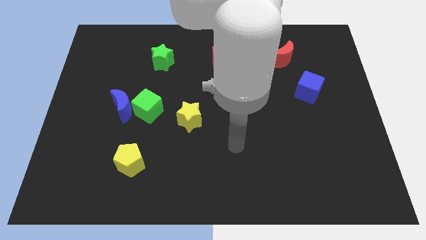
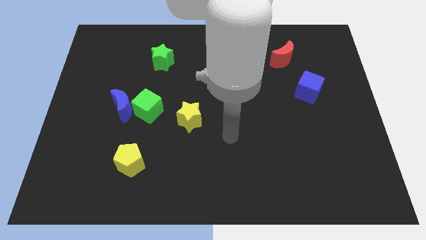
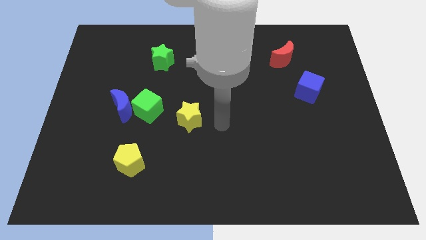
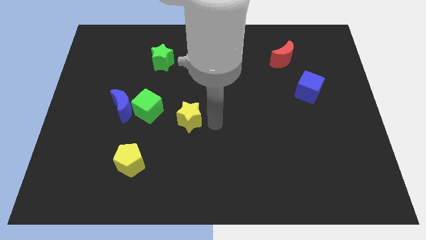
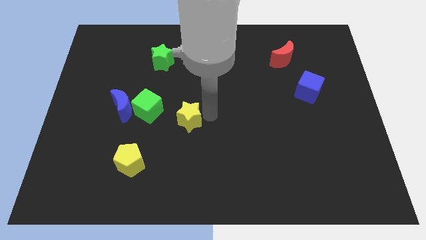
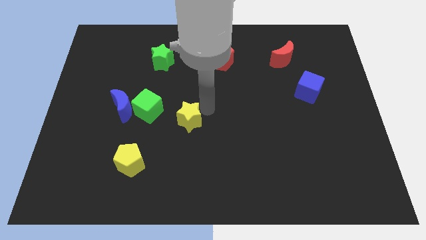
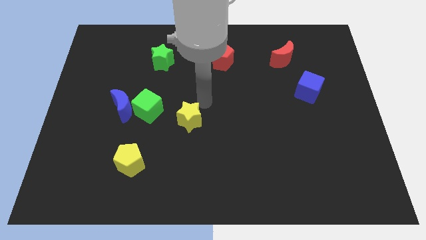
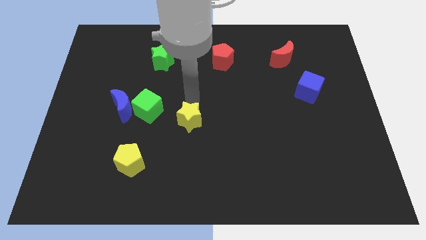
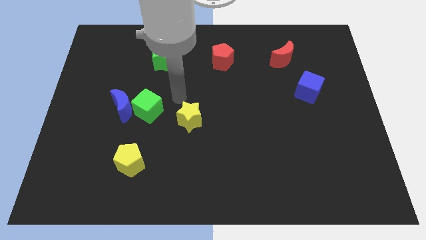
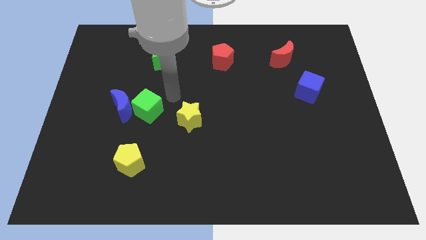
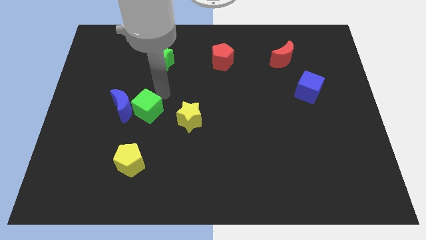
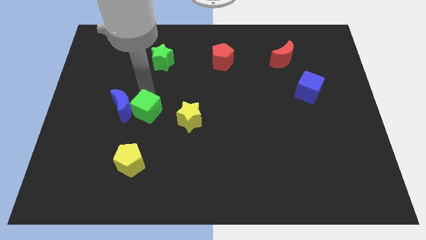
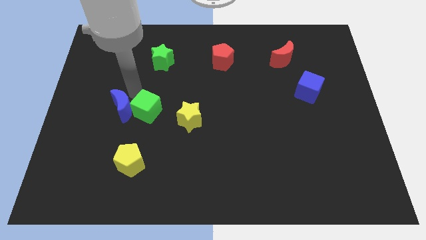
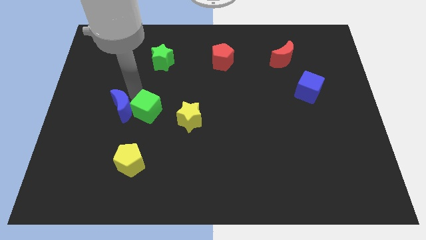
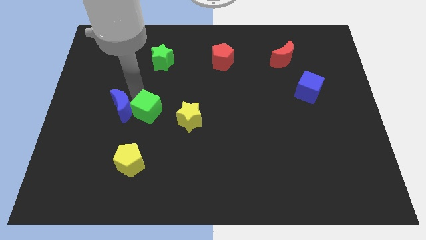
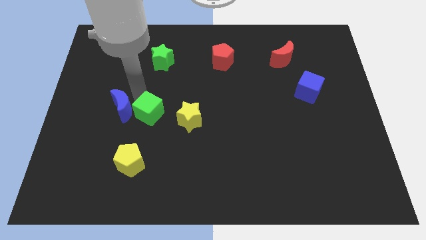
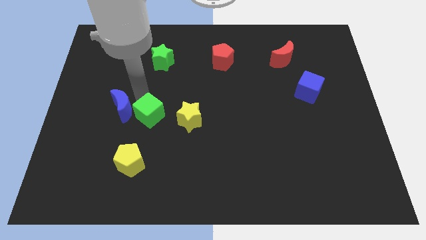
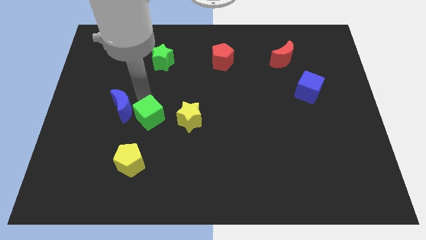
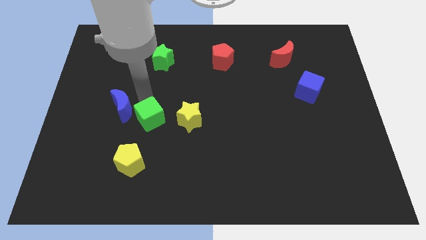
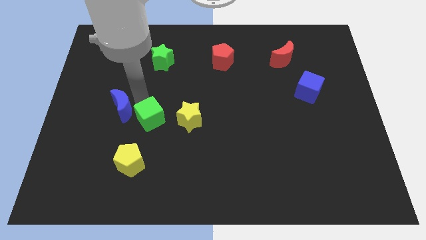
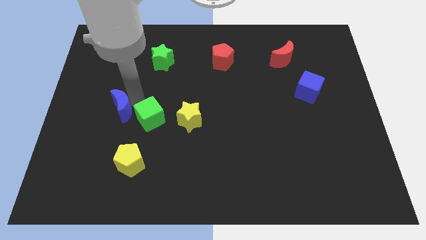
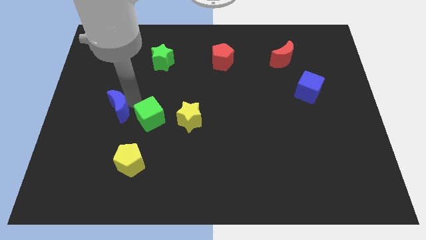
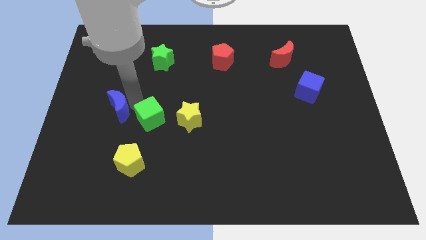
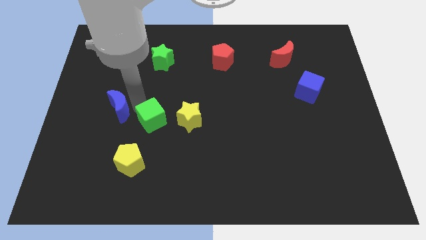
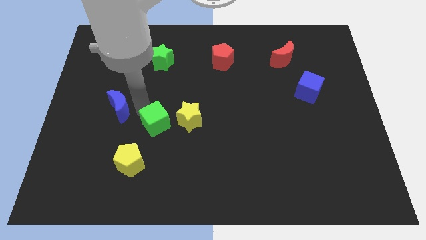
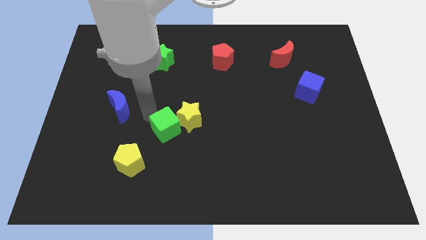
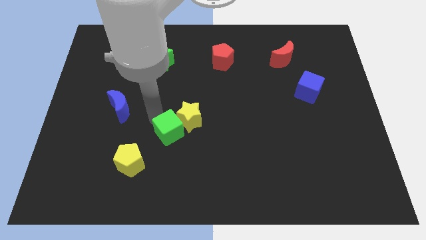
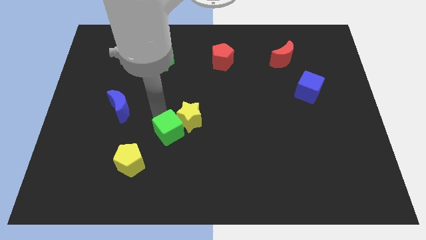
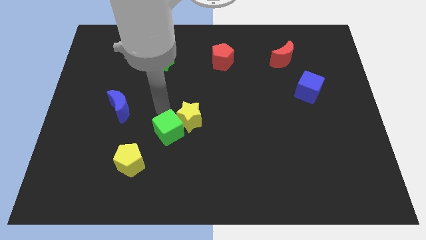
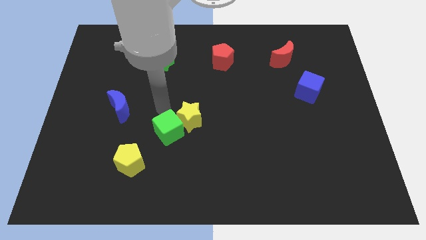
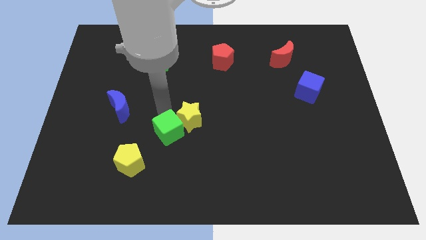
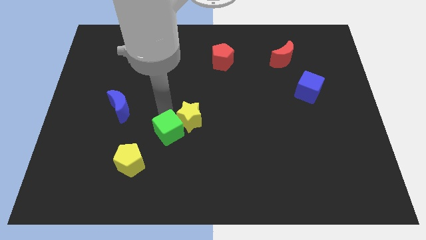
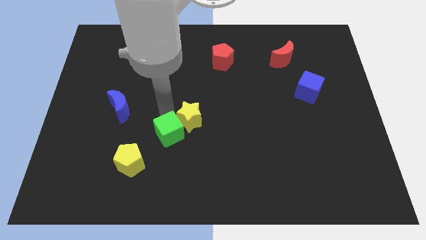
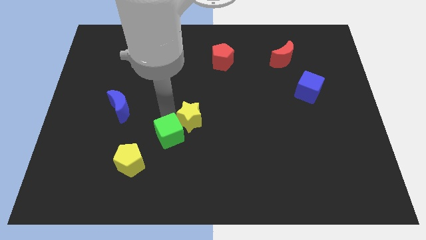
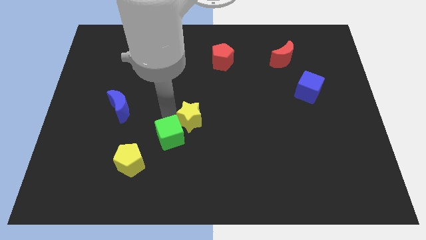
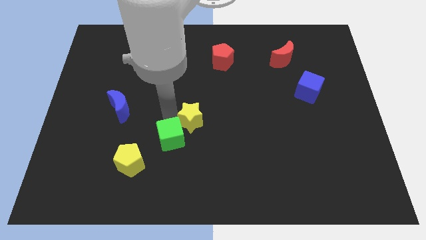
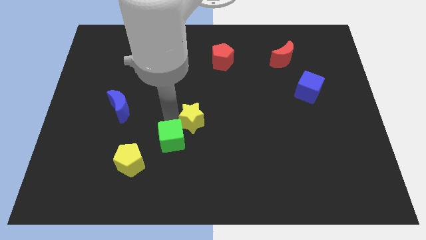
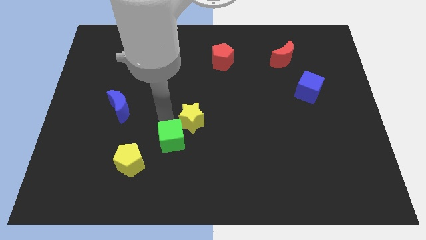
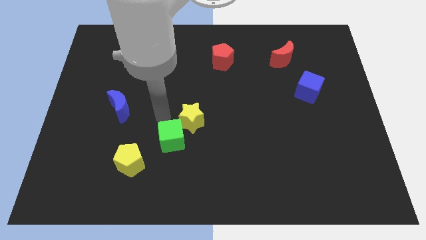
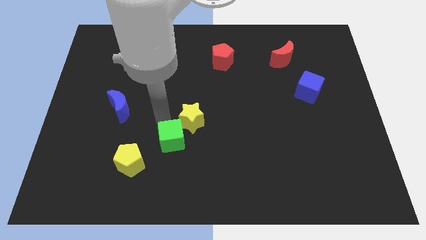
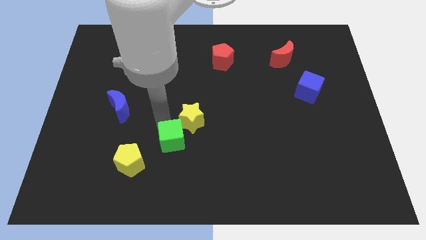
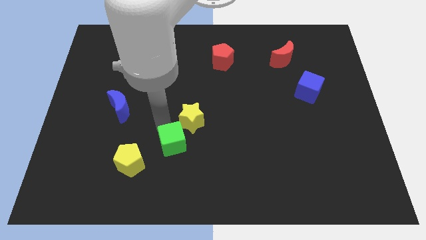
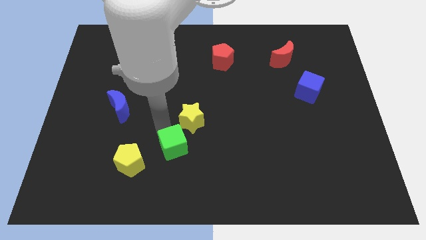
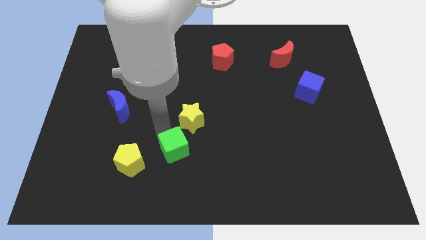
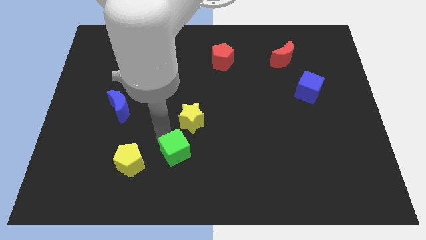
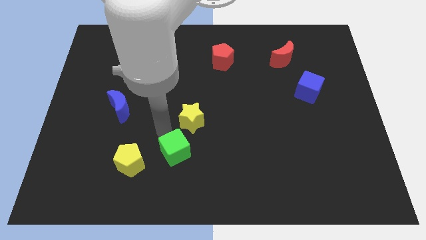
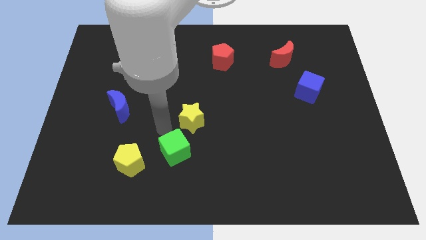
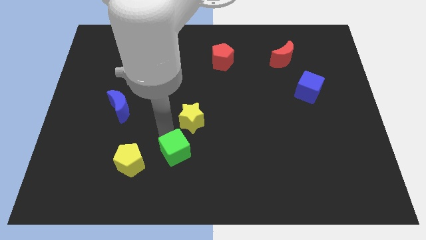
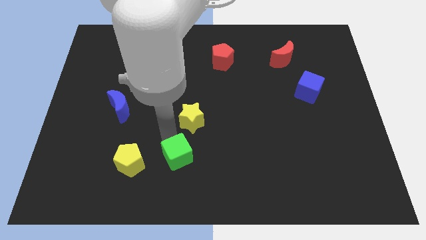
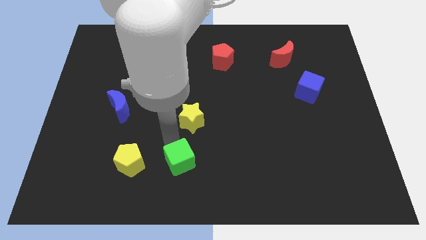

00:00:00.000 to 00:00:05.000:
move the green cube to the bottom

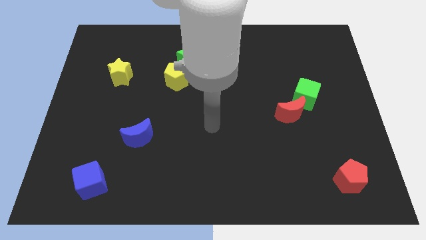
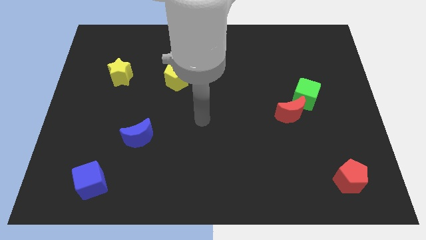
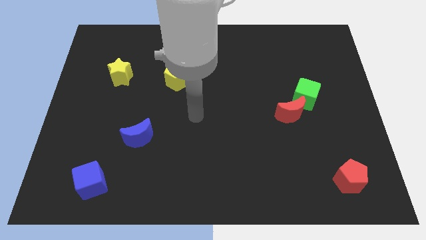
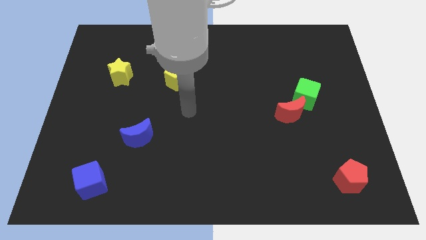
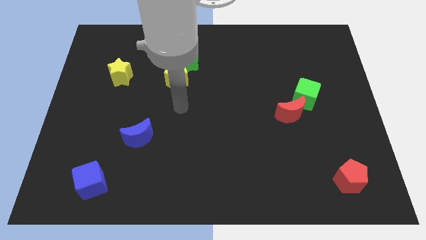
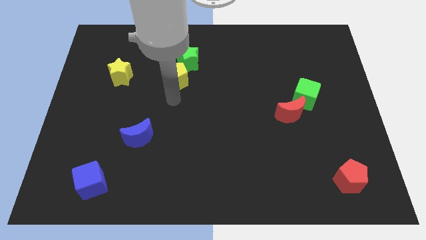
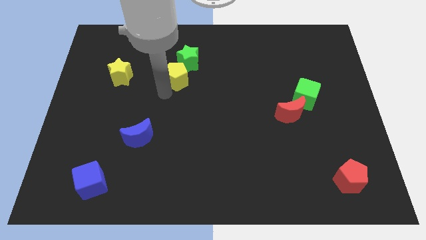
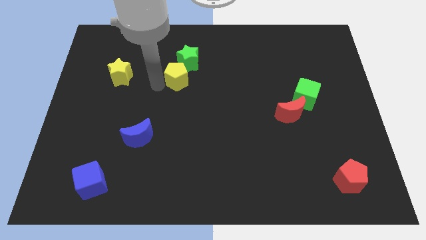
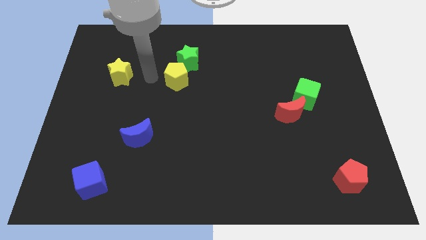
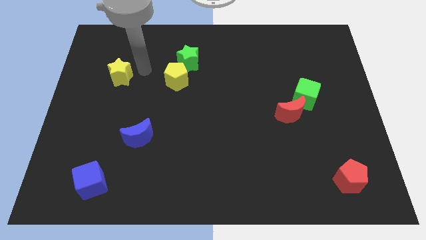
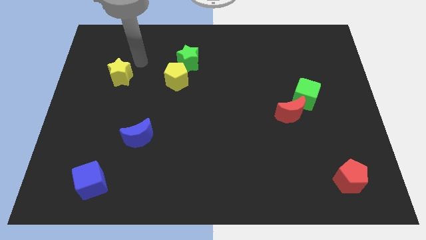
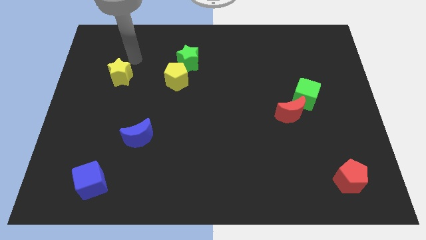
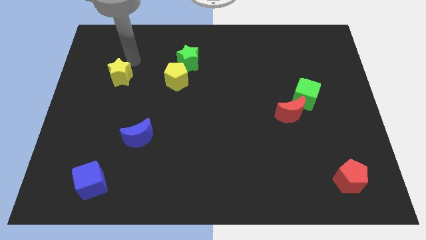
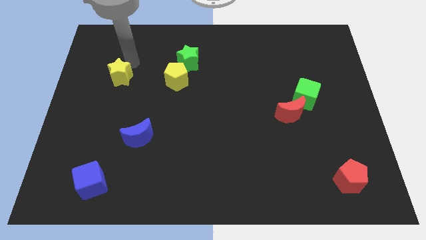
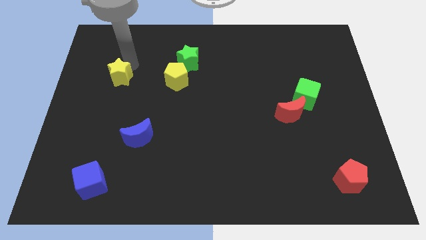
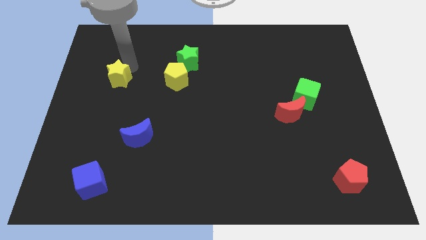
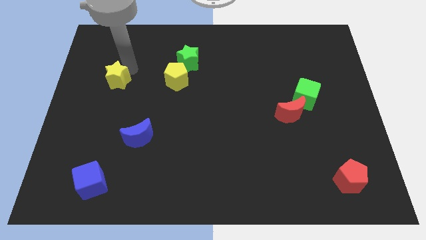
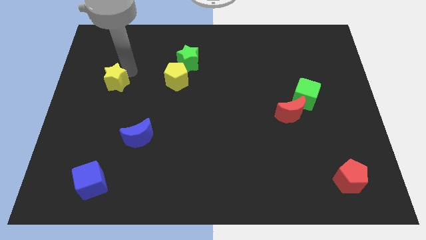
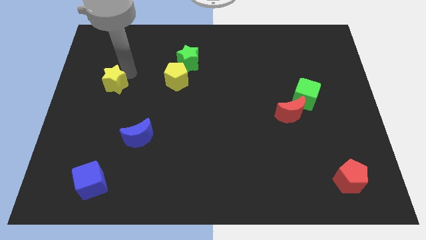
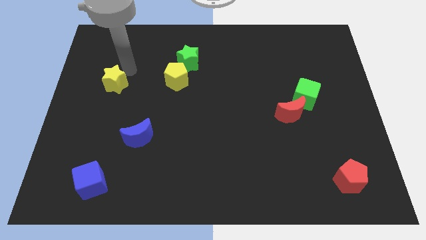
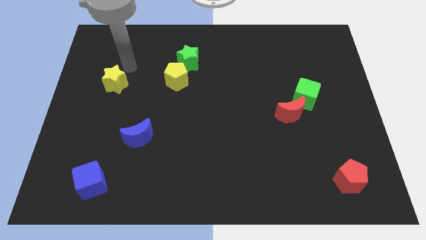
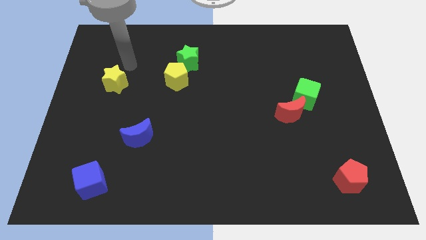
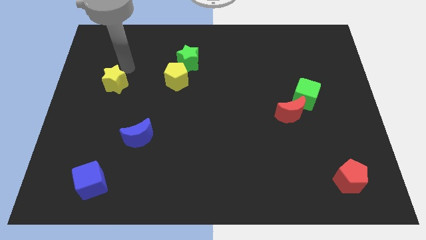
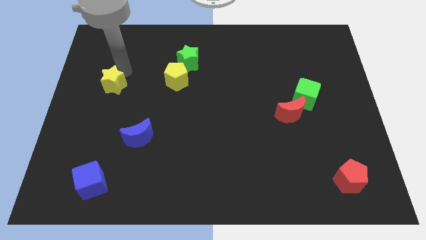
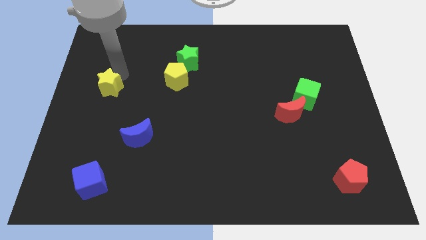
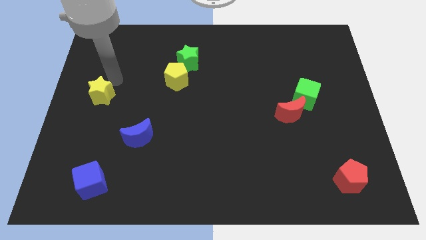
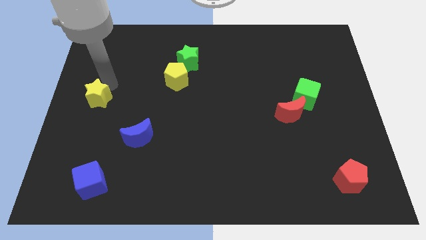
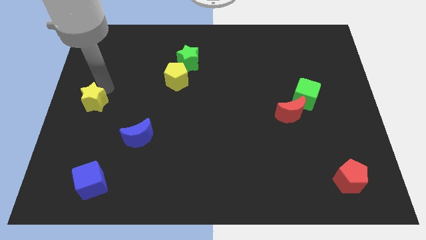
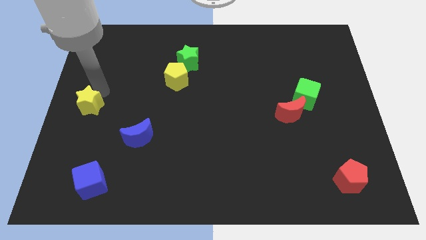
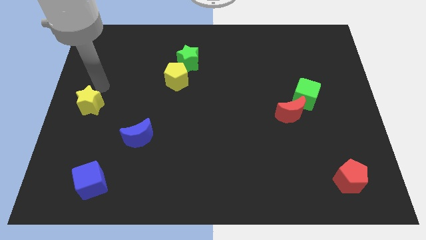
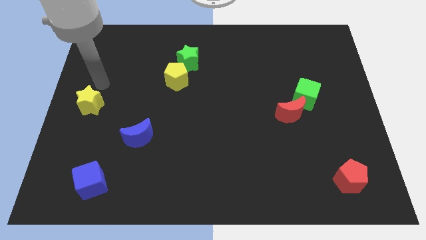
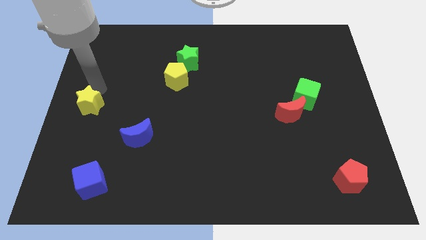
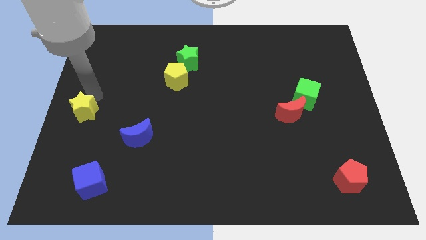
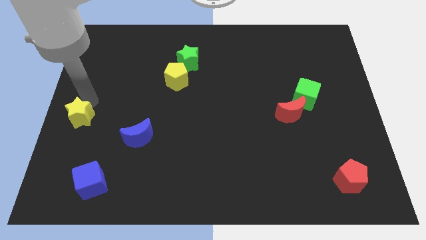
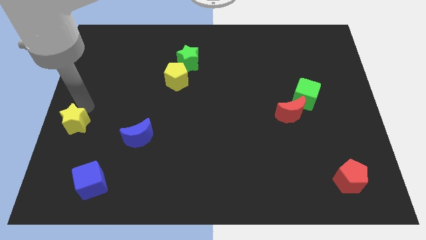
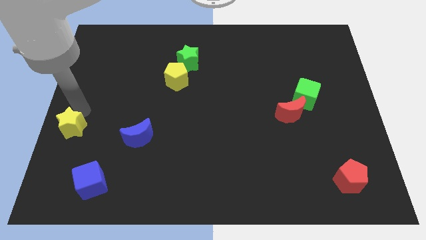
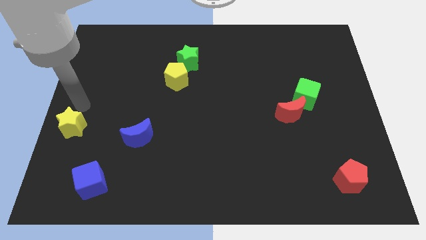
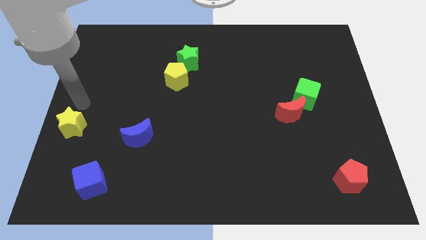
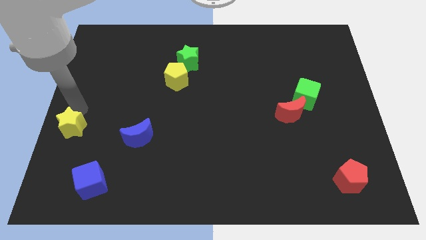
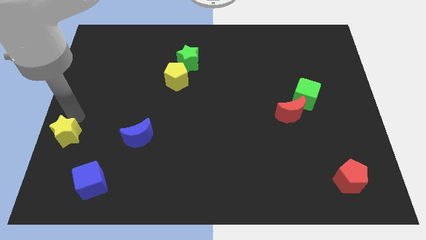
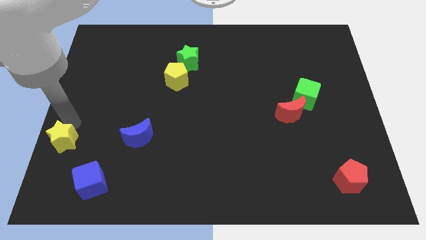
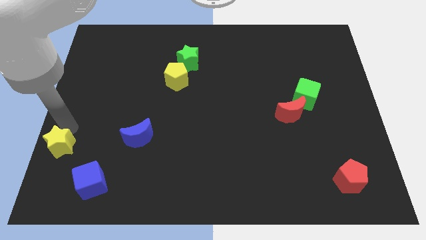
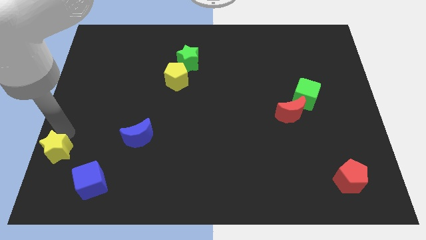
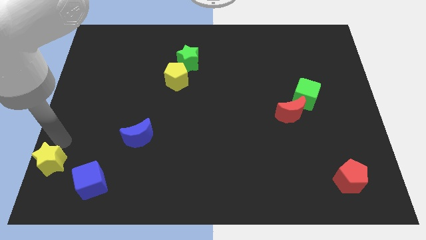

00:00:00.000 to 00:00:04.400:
slide the yellow star to the lower left corner
